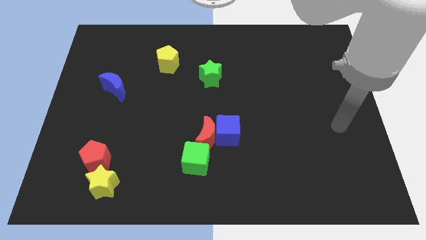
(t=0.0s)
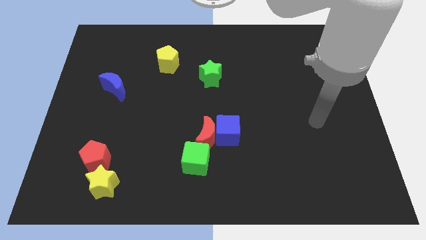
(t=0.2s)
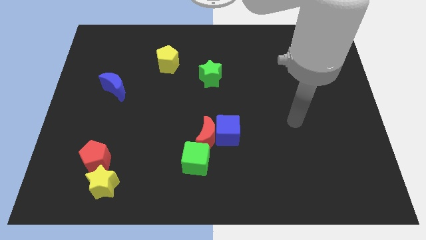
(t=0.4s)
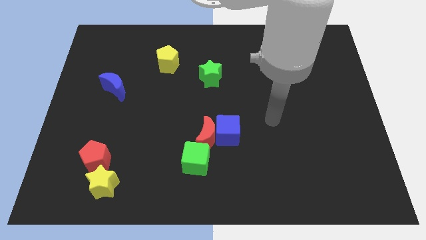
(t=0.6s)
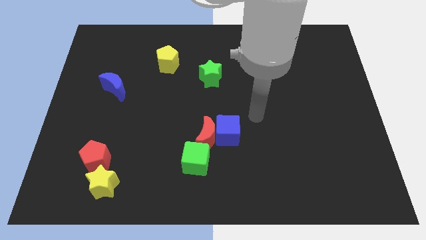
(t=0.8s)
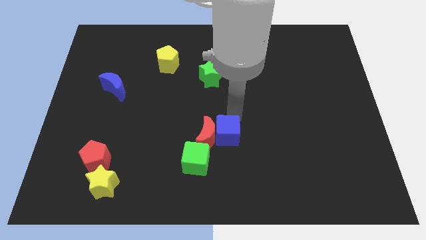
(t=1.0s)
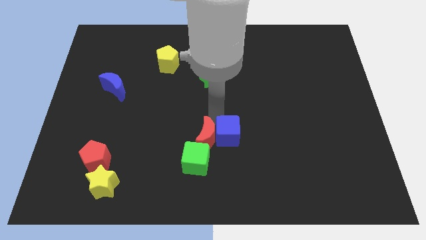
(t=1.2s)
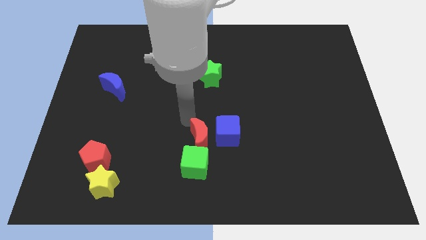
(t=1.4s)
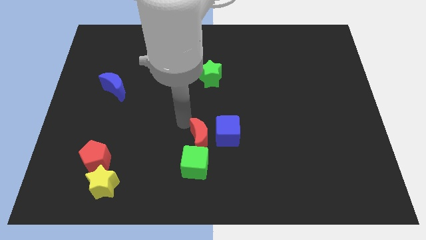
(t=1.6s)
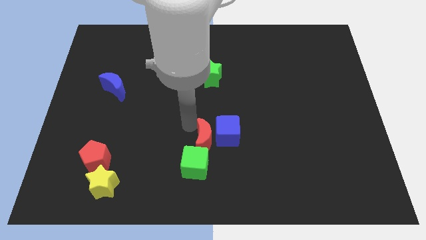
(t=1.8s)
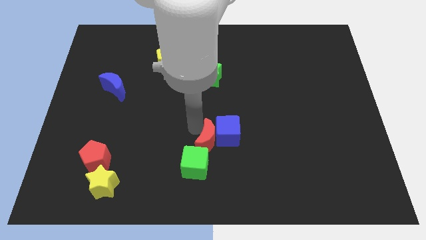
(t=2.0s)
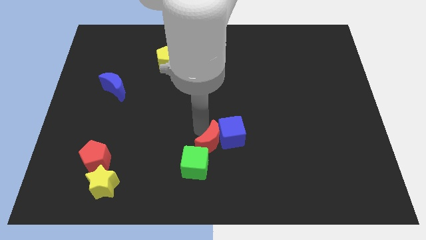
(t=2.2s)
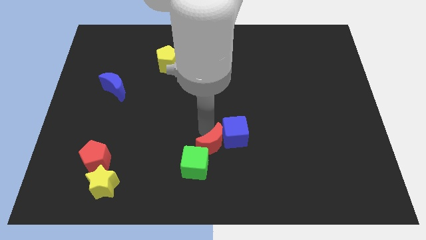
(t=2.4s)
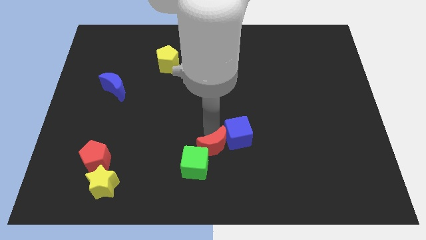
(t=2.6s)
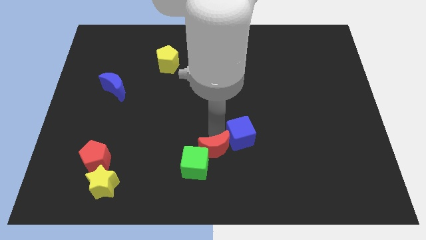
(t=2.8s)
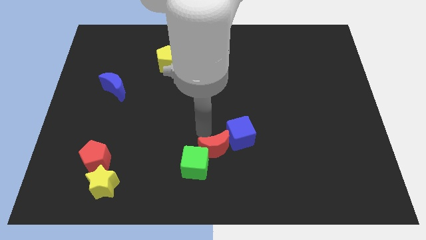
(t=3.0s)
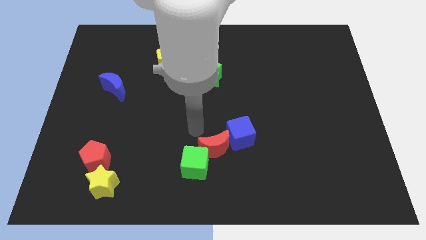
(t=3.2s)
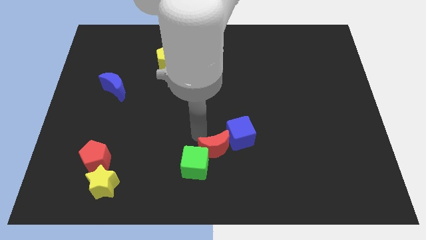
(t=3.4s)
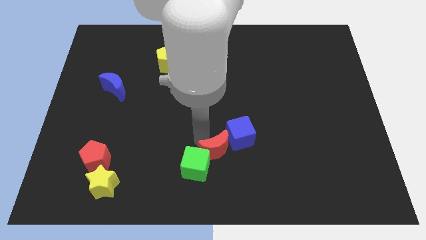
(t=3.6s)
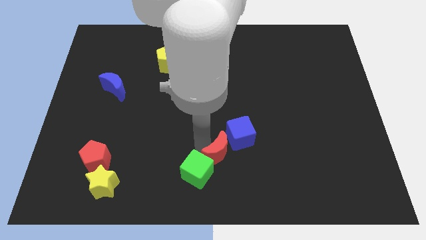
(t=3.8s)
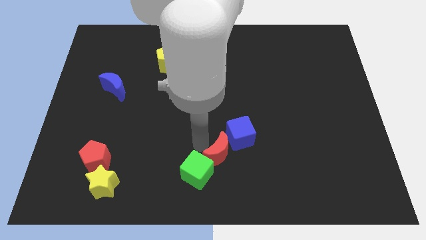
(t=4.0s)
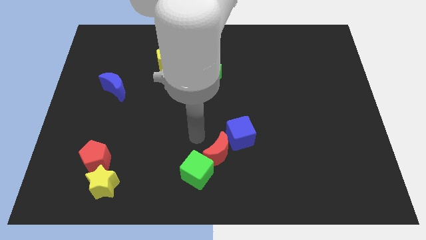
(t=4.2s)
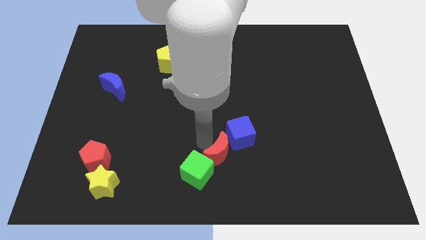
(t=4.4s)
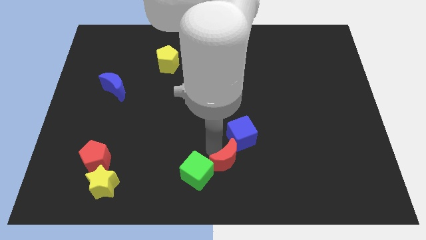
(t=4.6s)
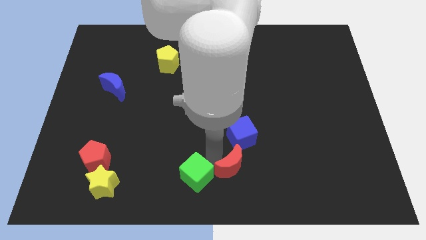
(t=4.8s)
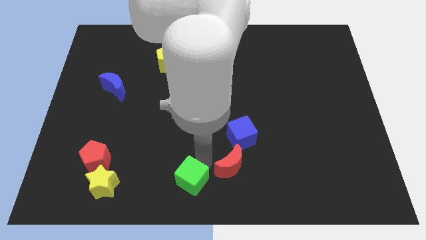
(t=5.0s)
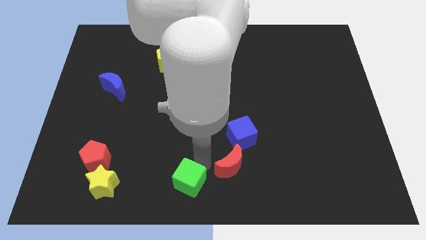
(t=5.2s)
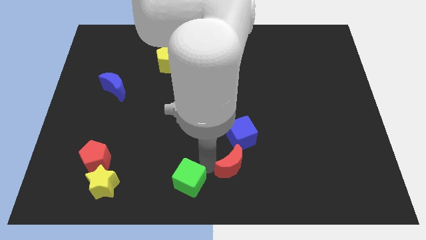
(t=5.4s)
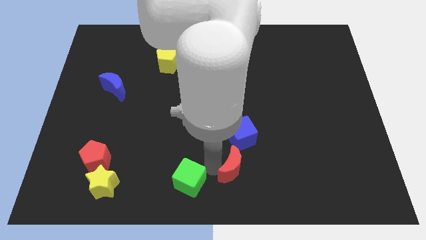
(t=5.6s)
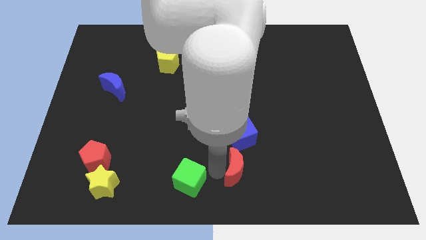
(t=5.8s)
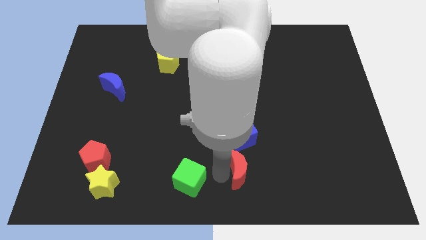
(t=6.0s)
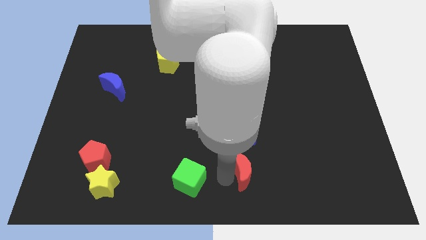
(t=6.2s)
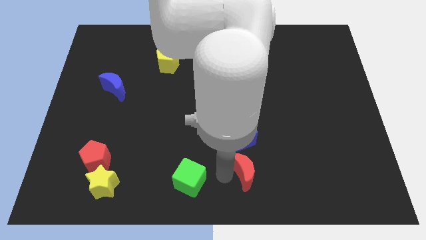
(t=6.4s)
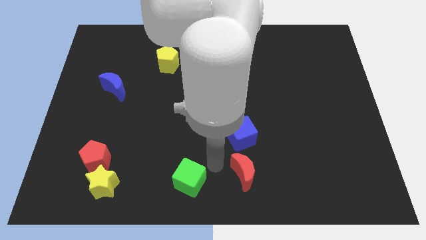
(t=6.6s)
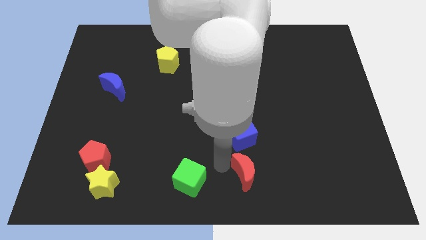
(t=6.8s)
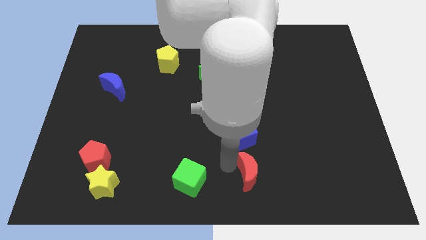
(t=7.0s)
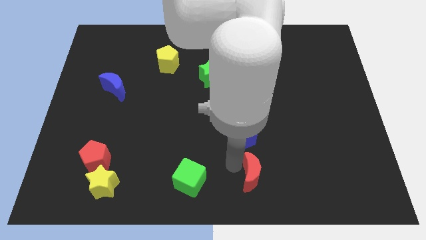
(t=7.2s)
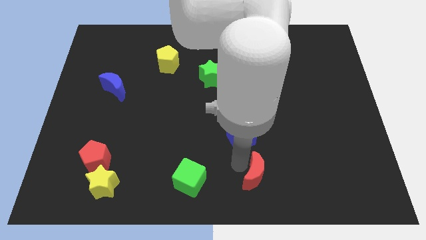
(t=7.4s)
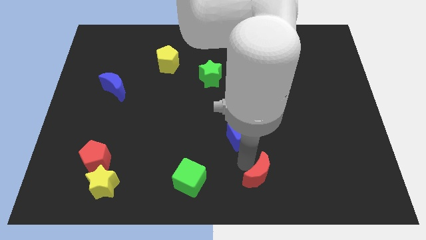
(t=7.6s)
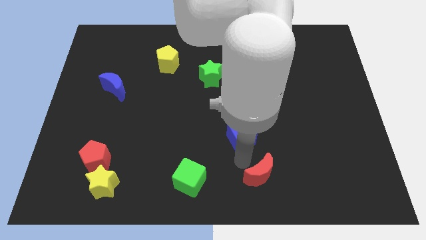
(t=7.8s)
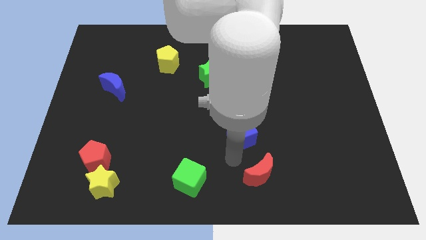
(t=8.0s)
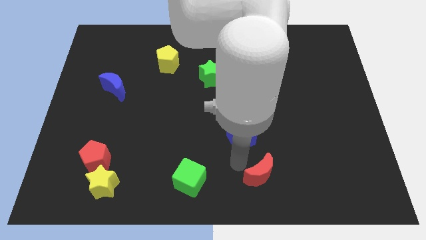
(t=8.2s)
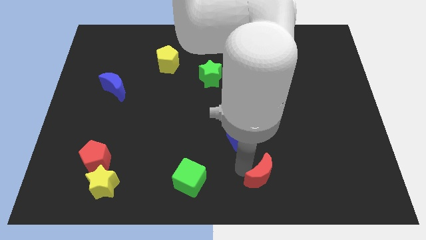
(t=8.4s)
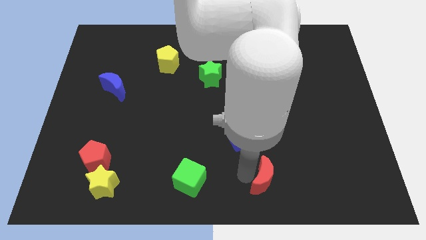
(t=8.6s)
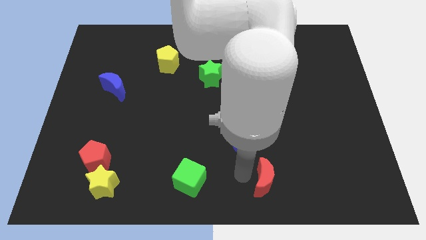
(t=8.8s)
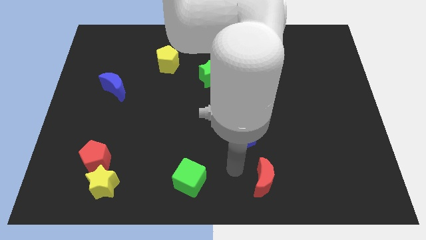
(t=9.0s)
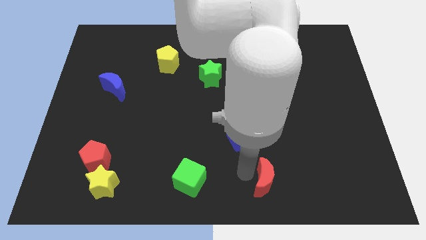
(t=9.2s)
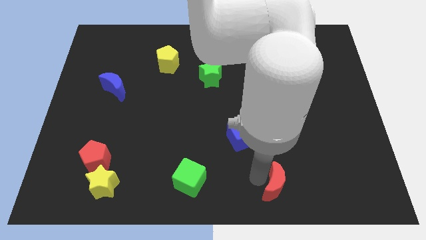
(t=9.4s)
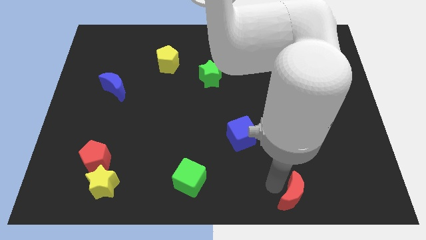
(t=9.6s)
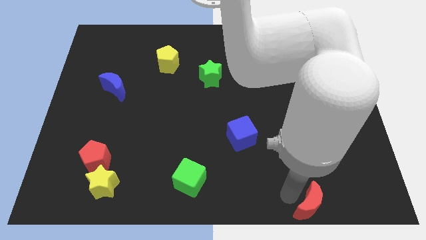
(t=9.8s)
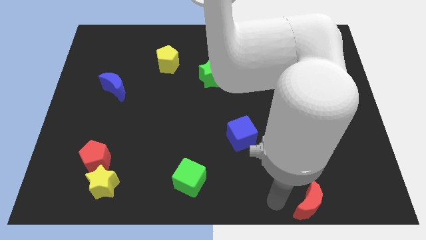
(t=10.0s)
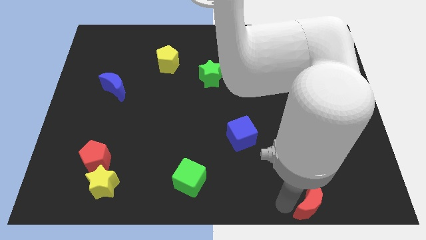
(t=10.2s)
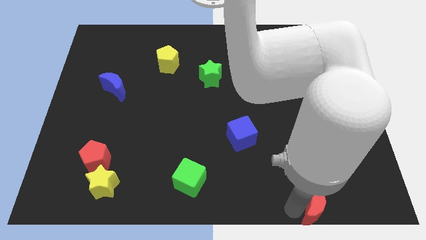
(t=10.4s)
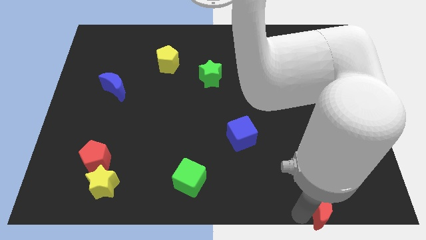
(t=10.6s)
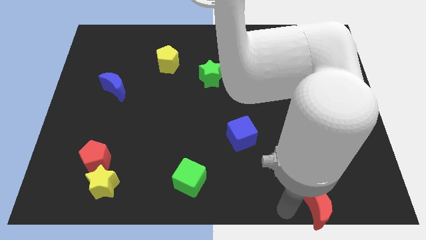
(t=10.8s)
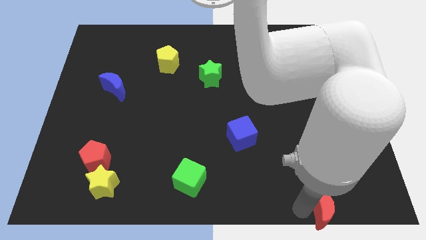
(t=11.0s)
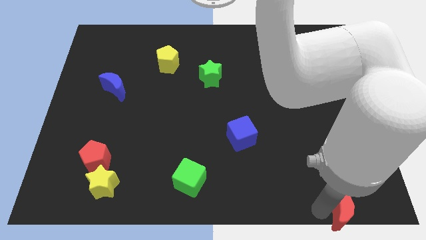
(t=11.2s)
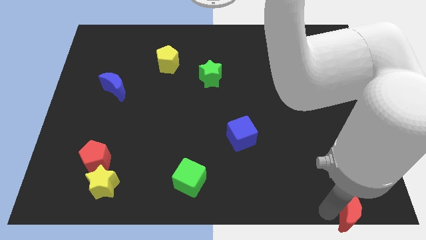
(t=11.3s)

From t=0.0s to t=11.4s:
slide the red moon to the lower right corner

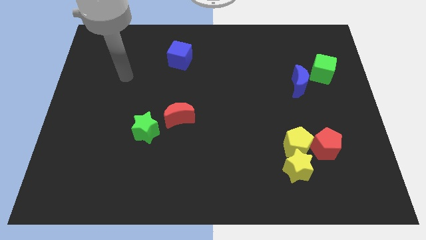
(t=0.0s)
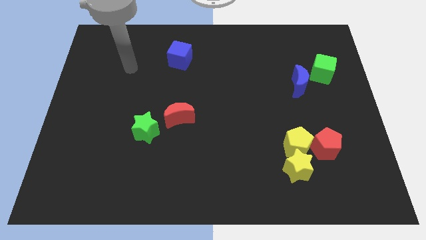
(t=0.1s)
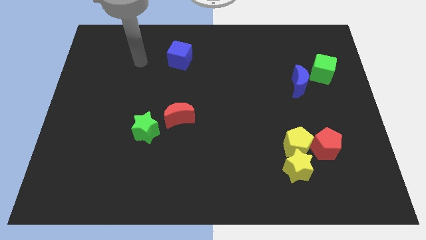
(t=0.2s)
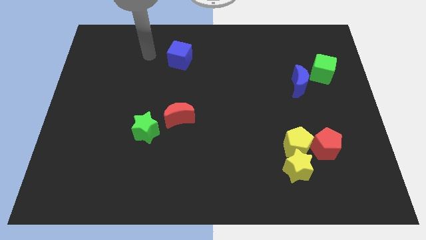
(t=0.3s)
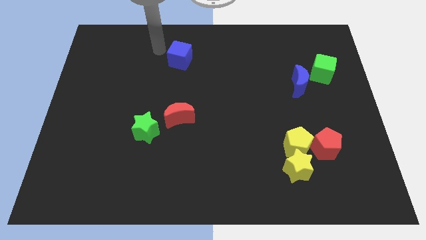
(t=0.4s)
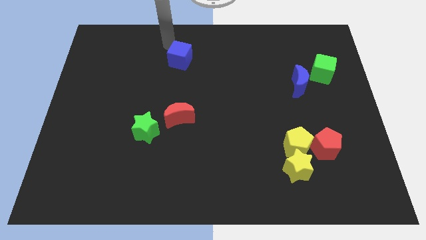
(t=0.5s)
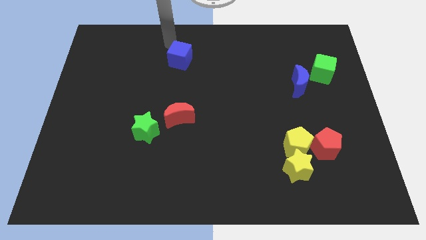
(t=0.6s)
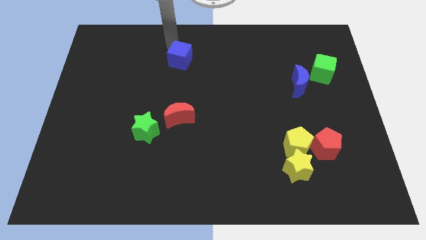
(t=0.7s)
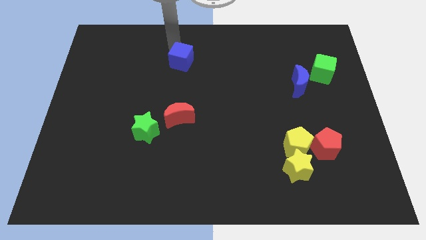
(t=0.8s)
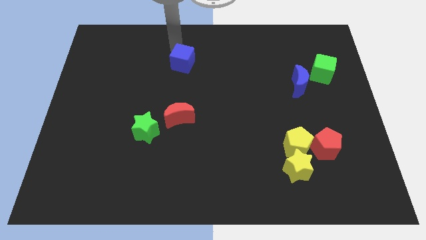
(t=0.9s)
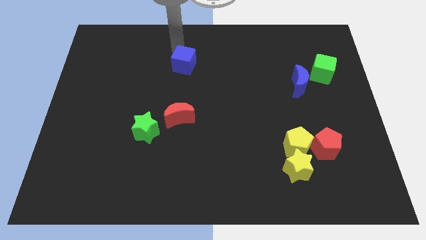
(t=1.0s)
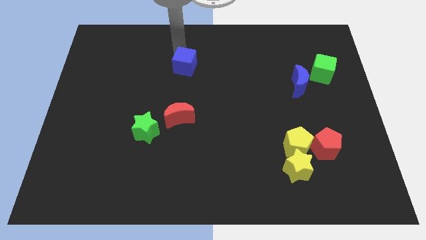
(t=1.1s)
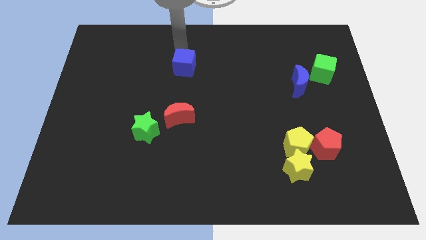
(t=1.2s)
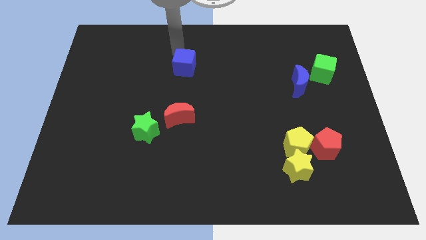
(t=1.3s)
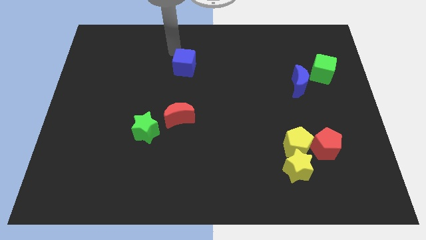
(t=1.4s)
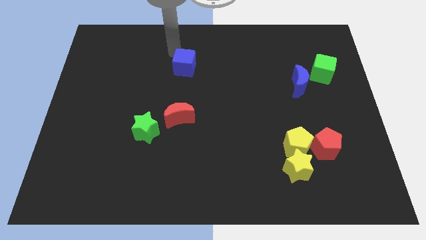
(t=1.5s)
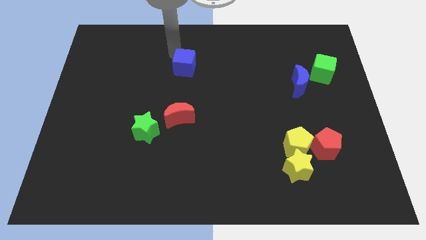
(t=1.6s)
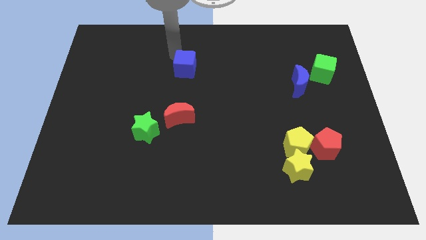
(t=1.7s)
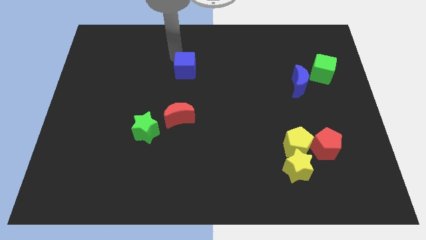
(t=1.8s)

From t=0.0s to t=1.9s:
put the blue cube to the center of the board
